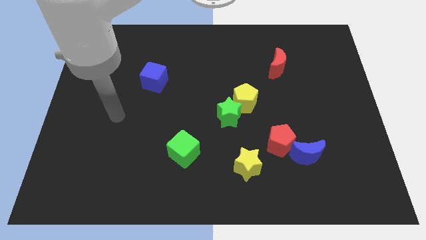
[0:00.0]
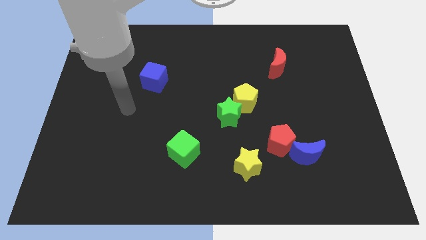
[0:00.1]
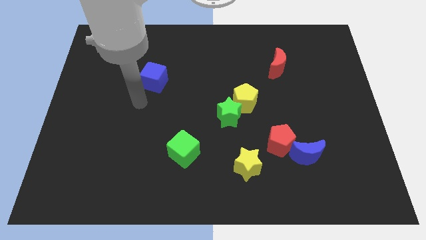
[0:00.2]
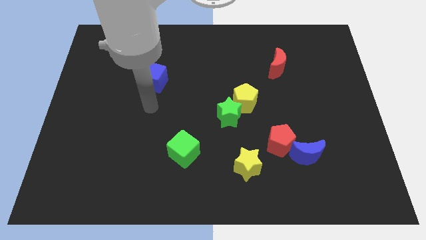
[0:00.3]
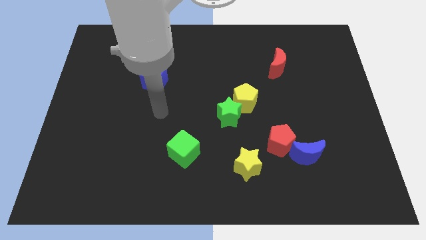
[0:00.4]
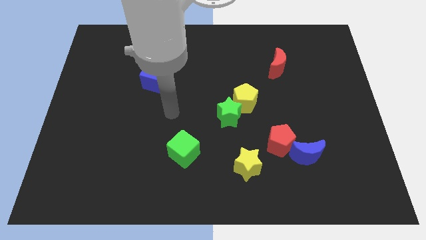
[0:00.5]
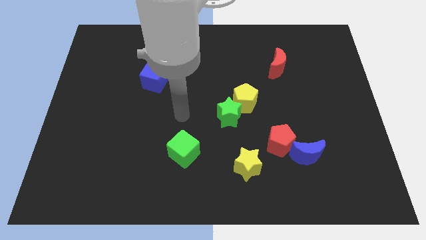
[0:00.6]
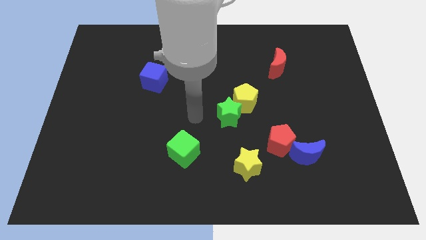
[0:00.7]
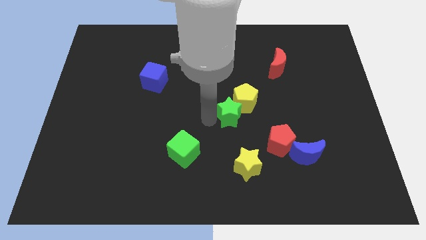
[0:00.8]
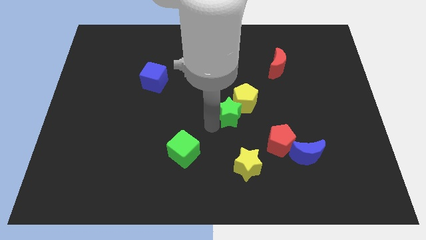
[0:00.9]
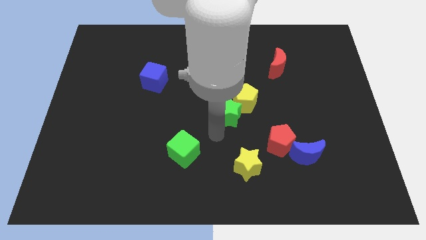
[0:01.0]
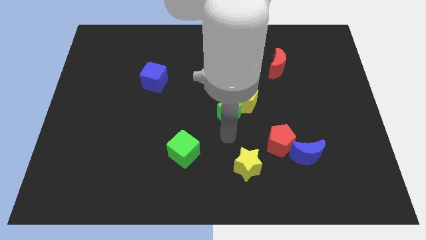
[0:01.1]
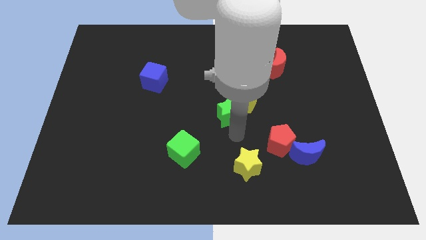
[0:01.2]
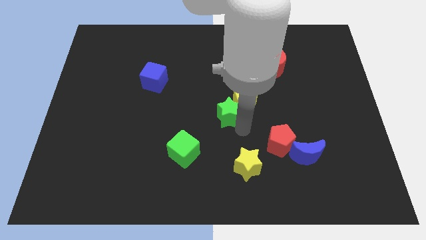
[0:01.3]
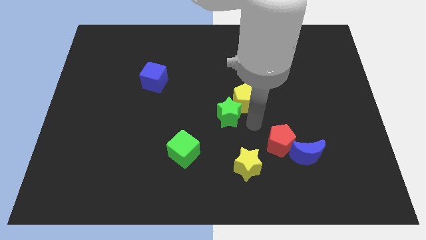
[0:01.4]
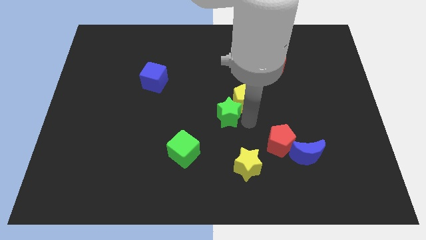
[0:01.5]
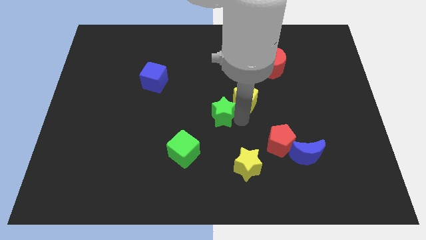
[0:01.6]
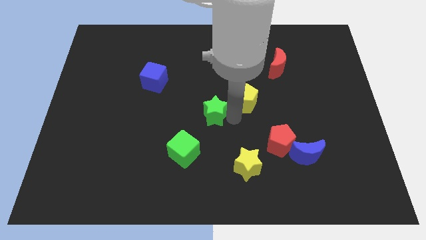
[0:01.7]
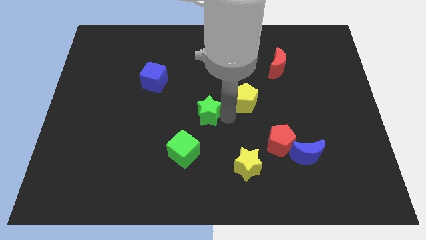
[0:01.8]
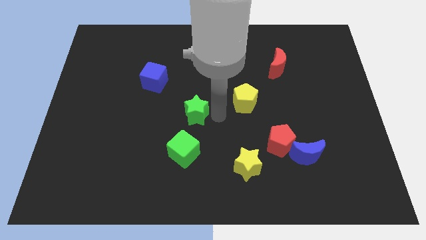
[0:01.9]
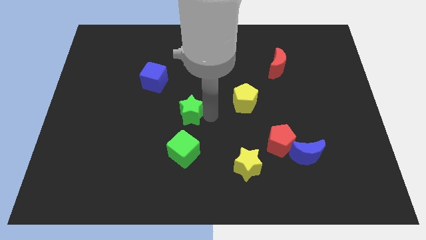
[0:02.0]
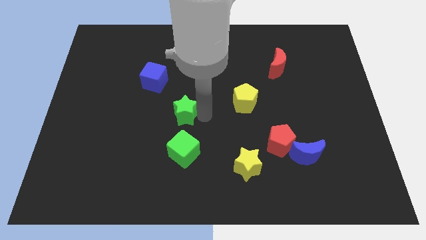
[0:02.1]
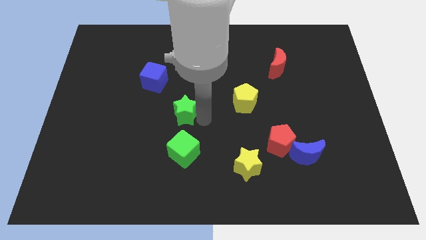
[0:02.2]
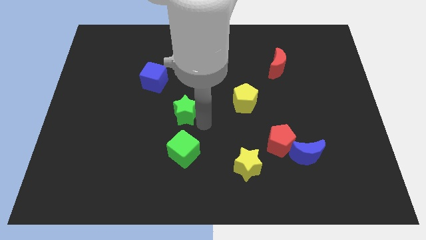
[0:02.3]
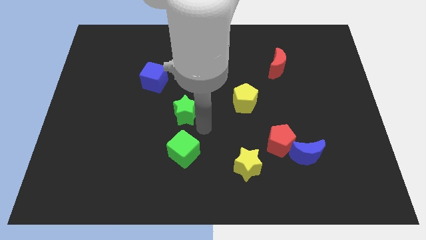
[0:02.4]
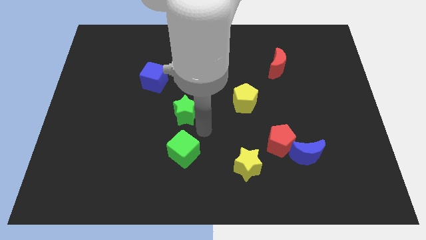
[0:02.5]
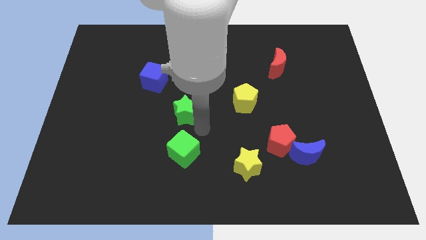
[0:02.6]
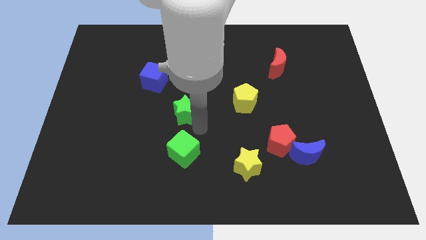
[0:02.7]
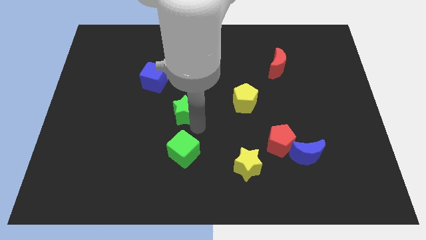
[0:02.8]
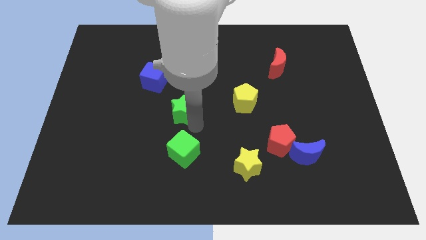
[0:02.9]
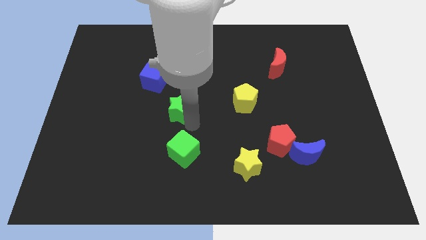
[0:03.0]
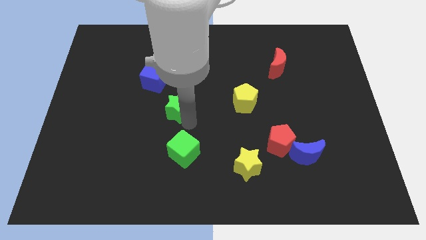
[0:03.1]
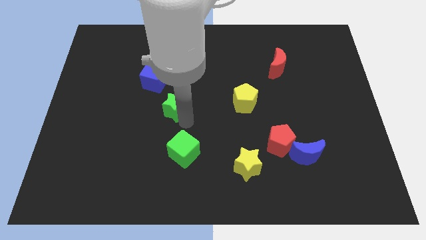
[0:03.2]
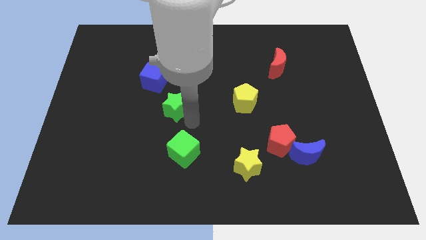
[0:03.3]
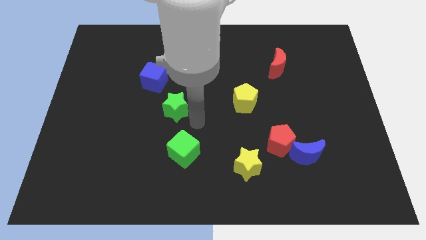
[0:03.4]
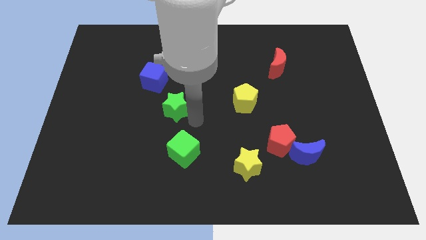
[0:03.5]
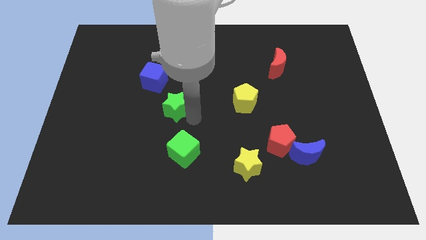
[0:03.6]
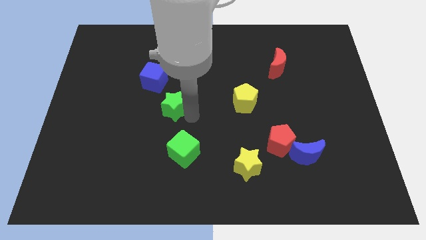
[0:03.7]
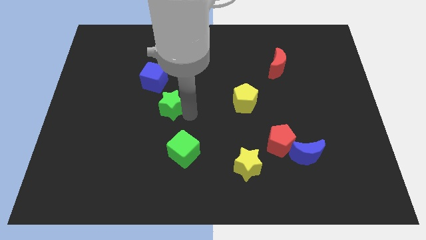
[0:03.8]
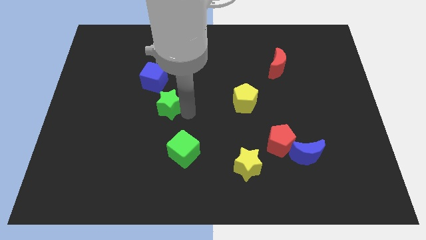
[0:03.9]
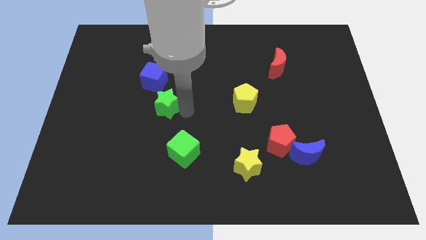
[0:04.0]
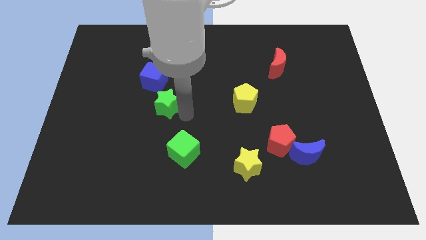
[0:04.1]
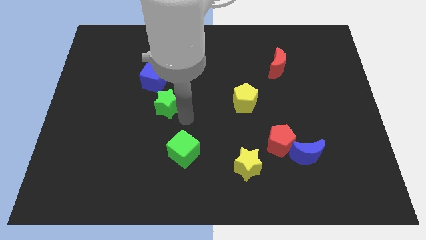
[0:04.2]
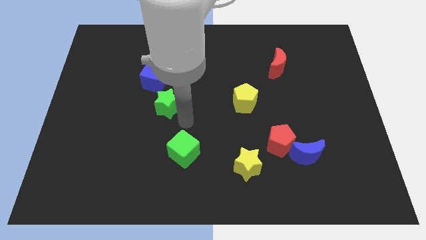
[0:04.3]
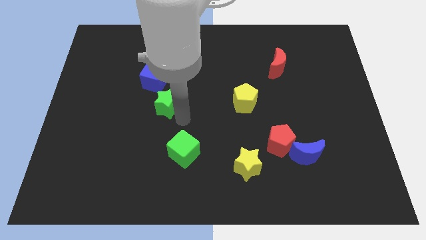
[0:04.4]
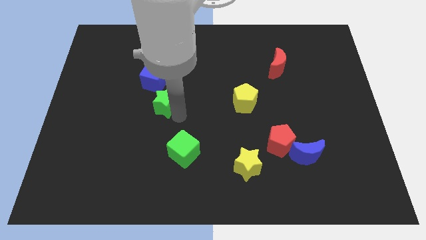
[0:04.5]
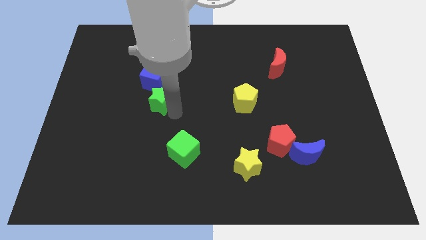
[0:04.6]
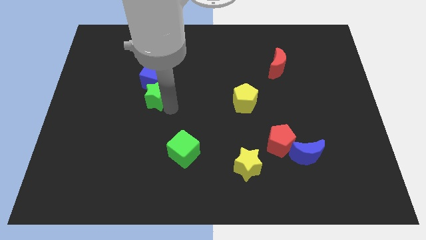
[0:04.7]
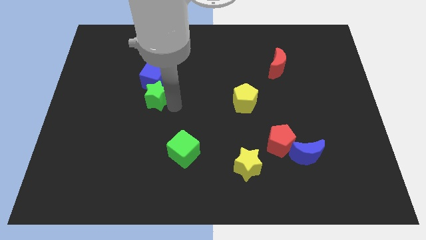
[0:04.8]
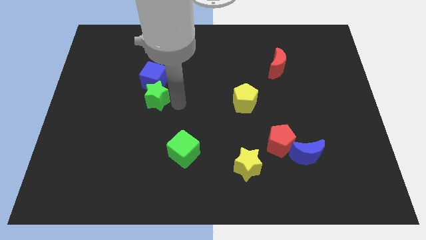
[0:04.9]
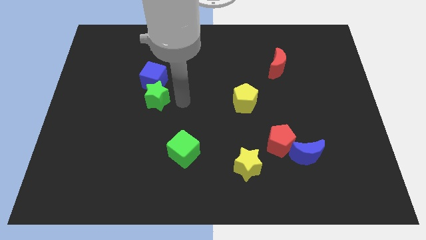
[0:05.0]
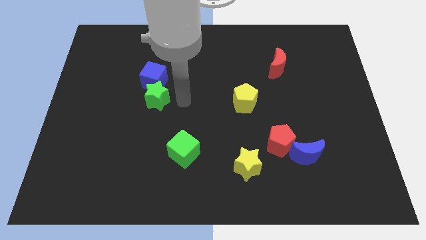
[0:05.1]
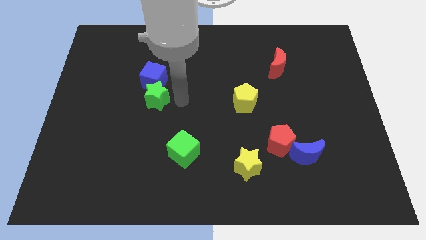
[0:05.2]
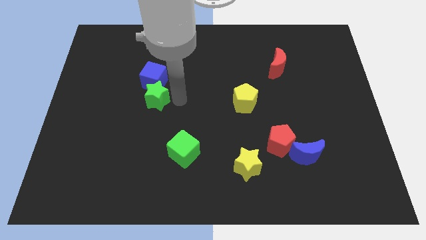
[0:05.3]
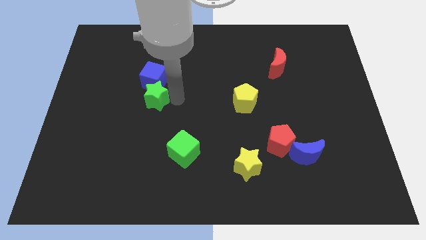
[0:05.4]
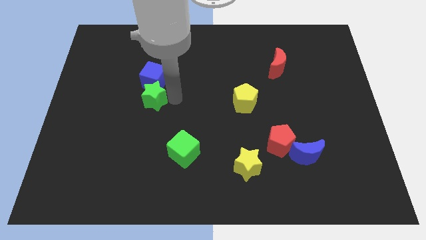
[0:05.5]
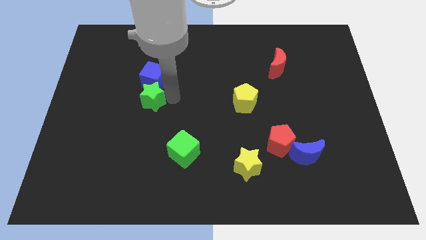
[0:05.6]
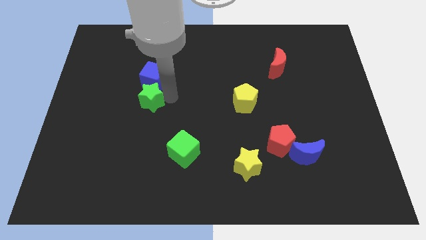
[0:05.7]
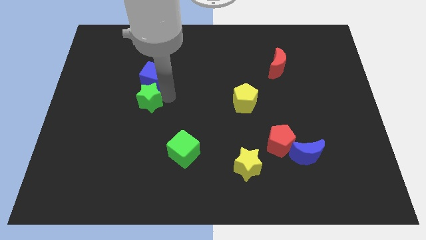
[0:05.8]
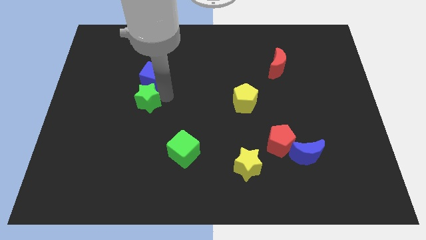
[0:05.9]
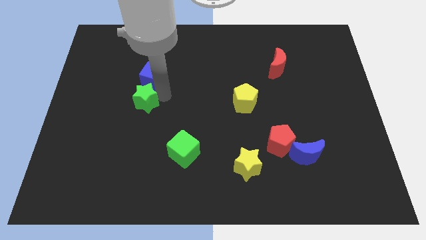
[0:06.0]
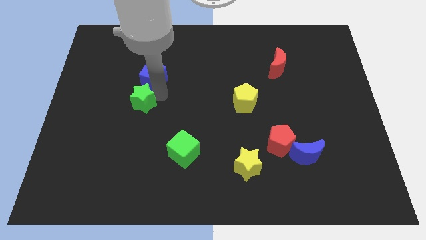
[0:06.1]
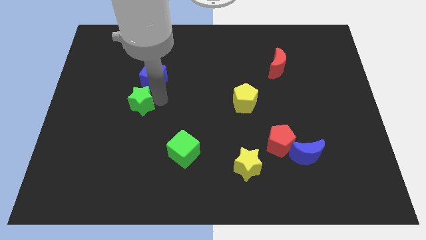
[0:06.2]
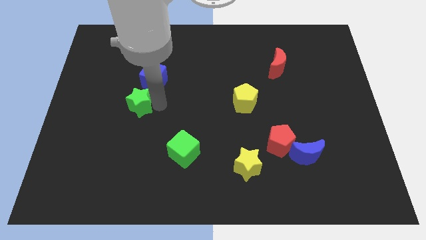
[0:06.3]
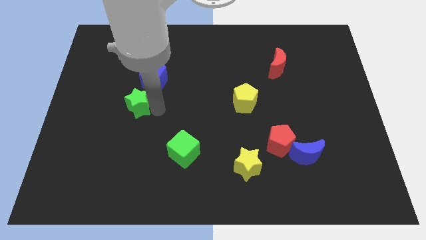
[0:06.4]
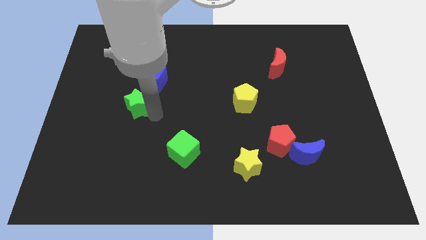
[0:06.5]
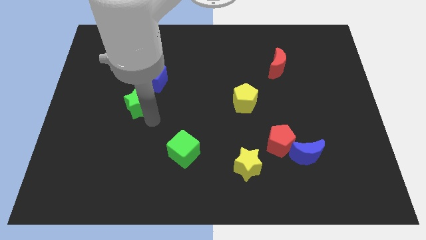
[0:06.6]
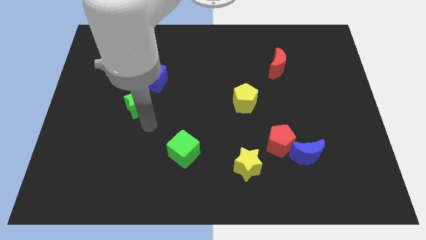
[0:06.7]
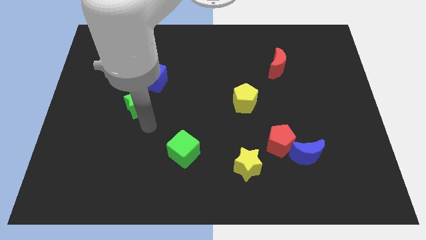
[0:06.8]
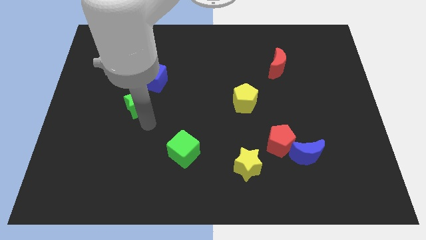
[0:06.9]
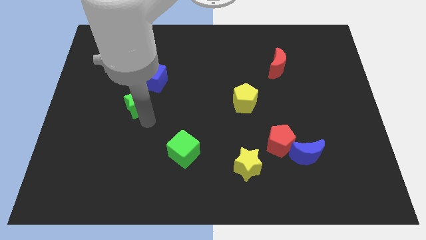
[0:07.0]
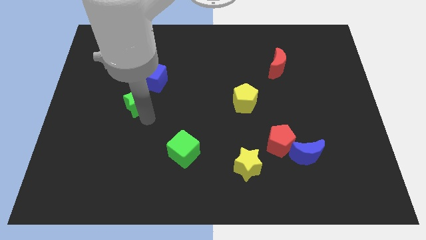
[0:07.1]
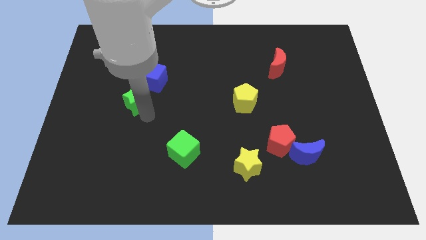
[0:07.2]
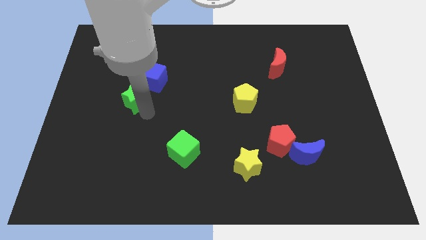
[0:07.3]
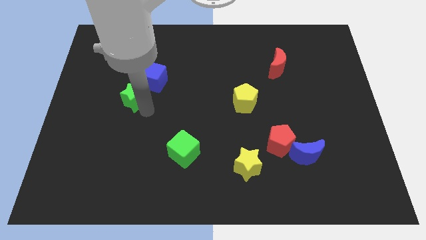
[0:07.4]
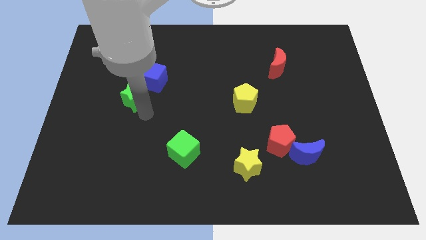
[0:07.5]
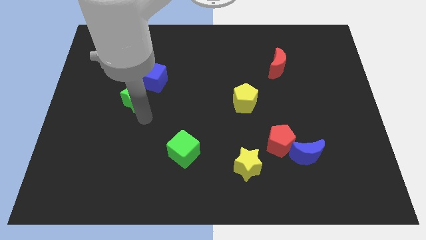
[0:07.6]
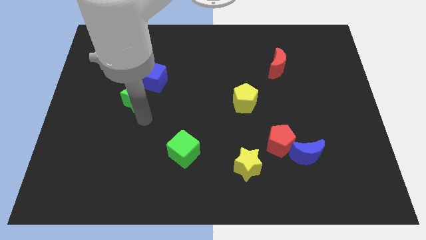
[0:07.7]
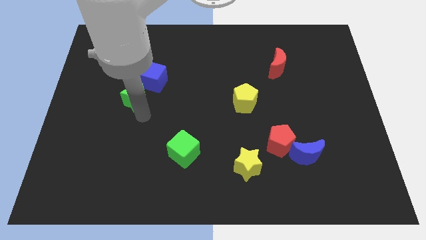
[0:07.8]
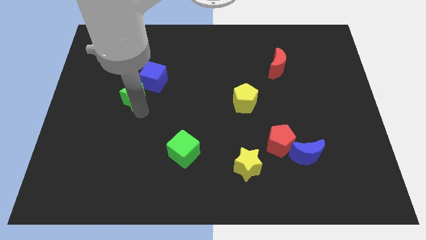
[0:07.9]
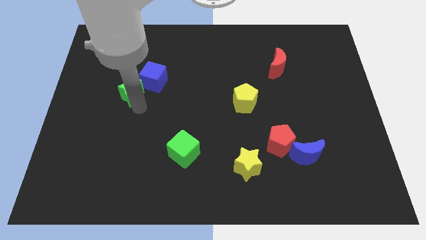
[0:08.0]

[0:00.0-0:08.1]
slide the green star left of the blue cube
